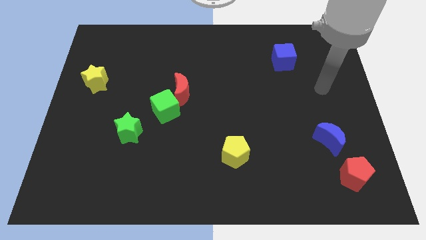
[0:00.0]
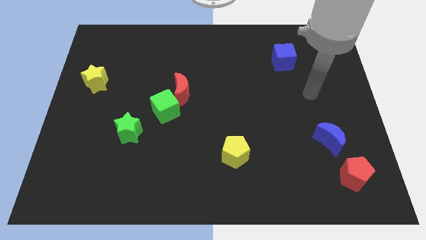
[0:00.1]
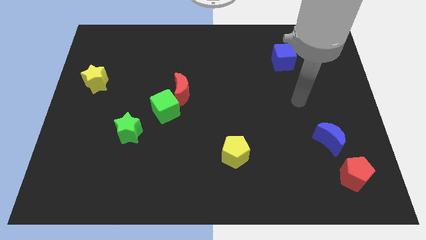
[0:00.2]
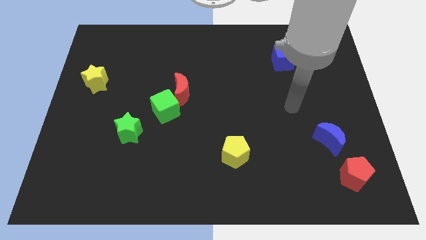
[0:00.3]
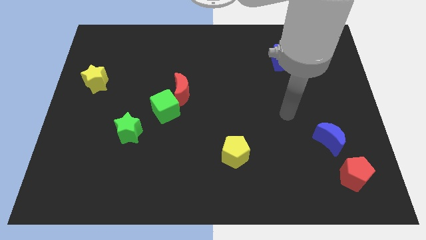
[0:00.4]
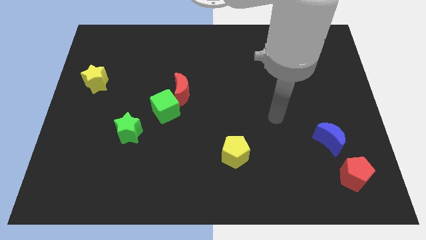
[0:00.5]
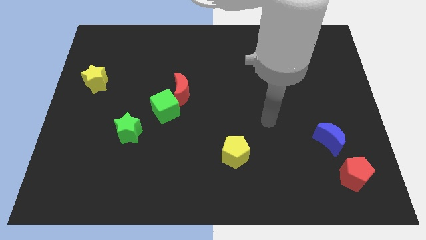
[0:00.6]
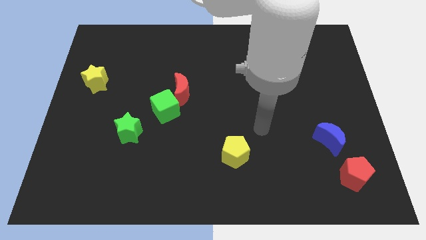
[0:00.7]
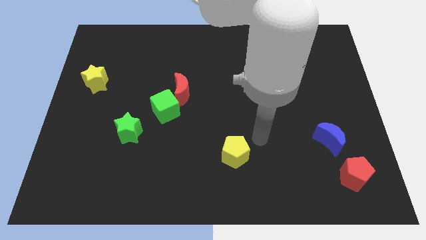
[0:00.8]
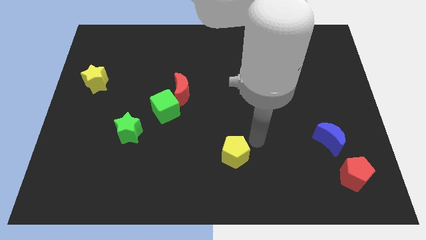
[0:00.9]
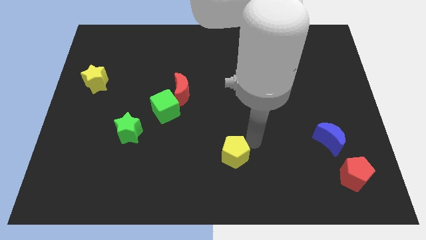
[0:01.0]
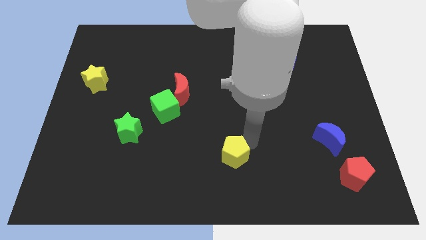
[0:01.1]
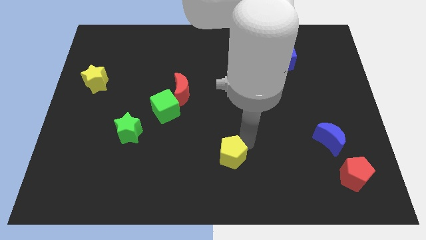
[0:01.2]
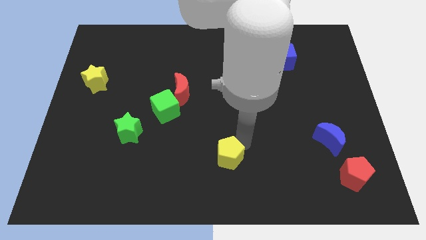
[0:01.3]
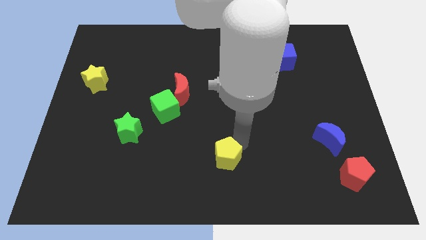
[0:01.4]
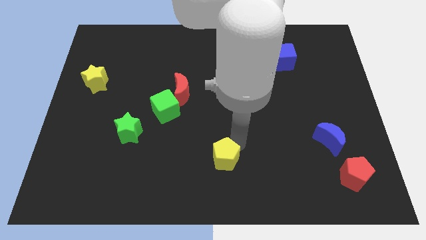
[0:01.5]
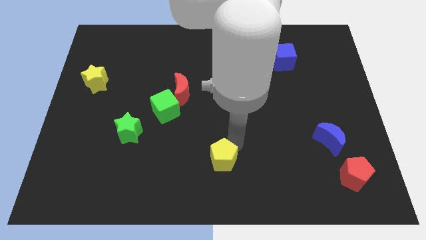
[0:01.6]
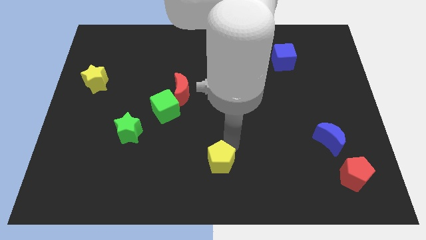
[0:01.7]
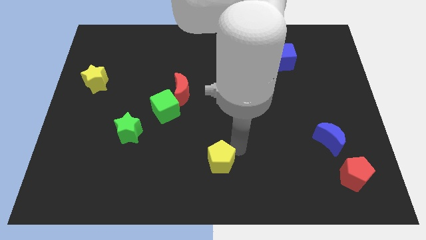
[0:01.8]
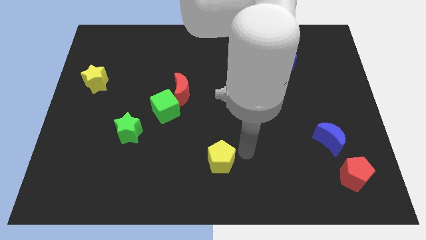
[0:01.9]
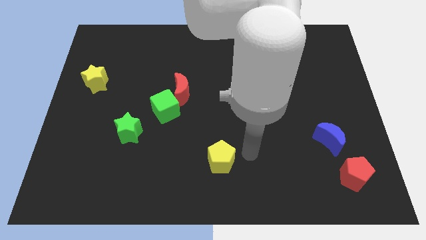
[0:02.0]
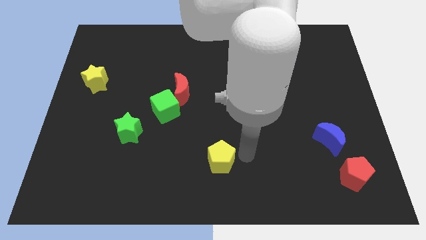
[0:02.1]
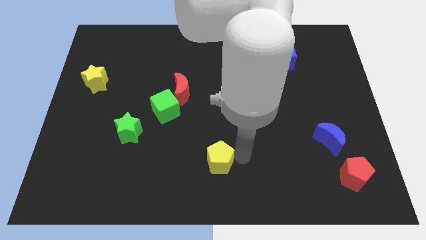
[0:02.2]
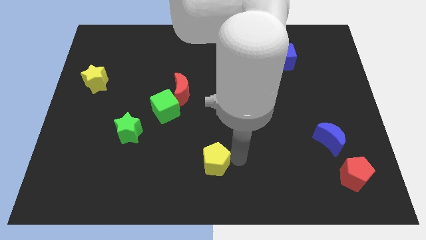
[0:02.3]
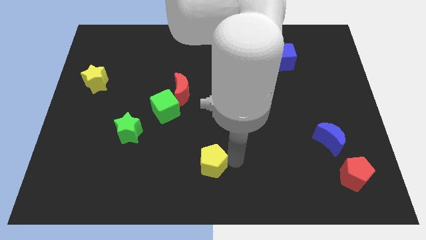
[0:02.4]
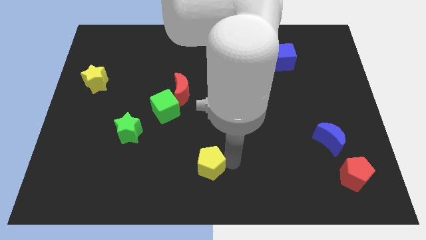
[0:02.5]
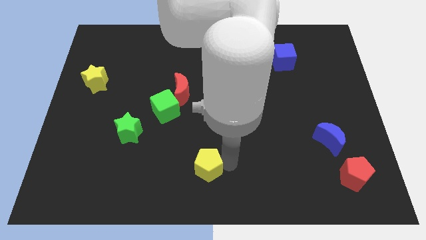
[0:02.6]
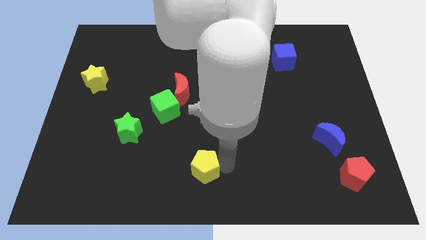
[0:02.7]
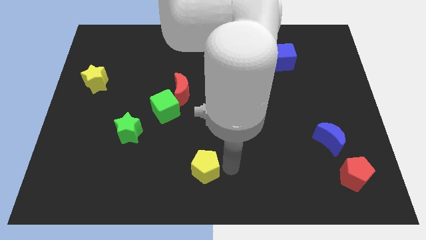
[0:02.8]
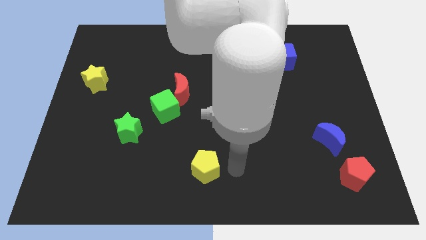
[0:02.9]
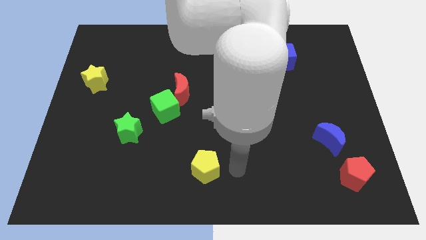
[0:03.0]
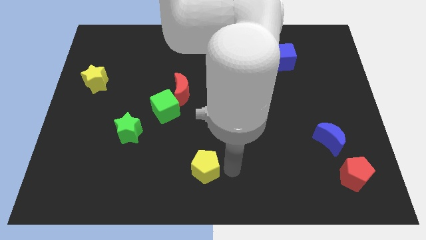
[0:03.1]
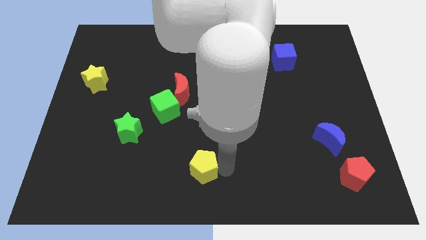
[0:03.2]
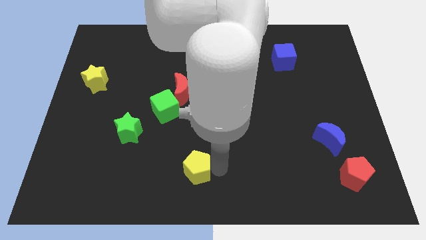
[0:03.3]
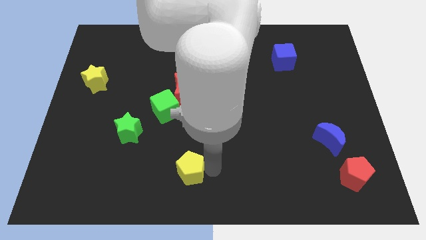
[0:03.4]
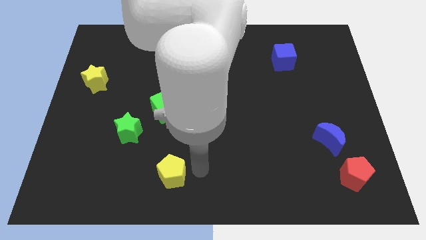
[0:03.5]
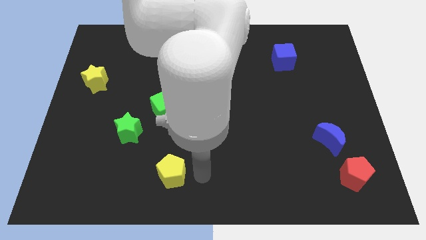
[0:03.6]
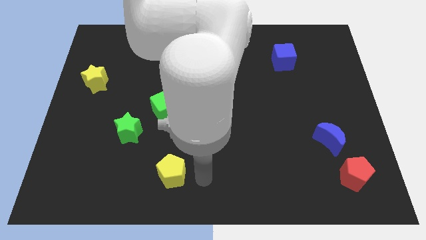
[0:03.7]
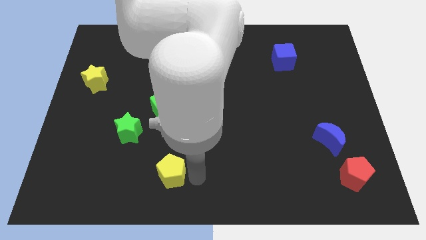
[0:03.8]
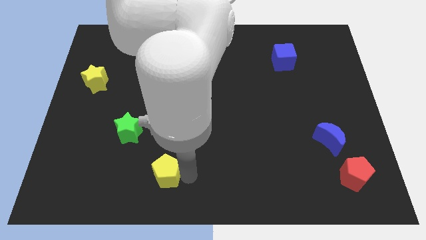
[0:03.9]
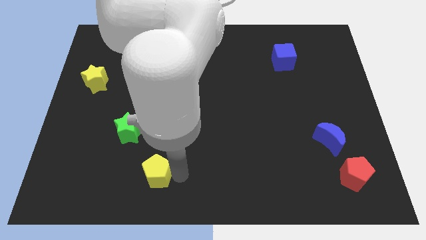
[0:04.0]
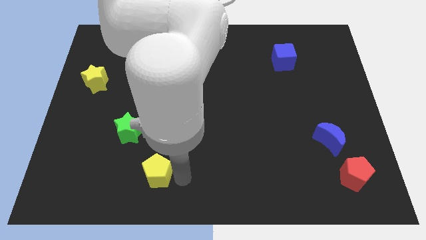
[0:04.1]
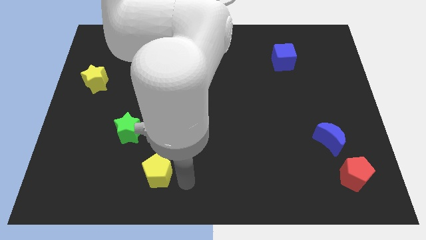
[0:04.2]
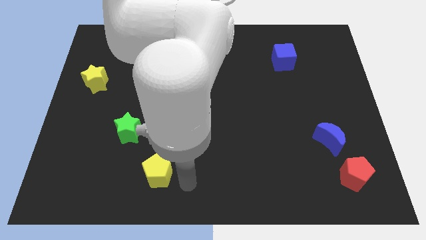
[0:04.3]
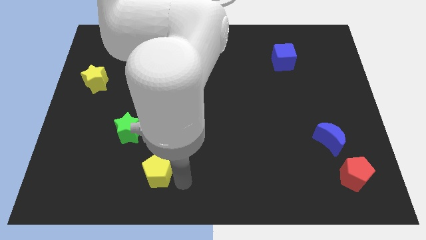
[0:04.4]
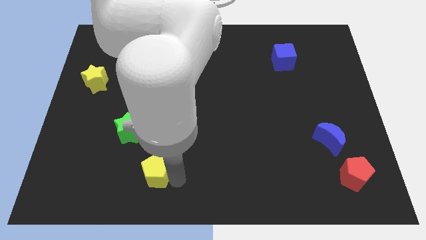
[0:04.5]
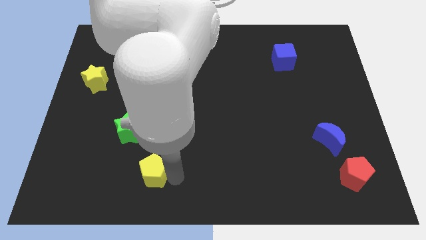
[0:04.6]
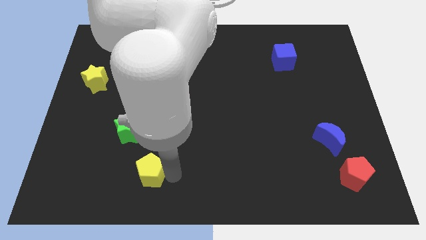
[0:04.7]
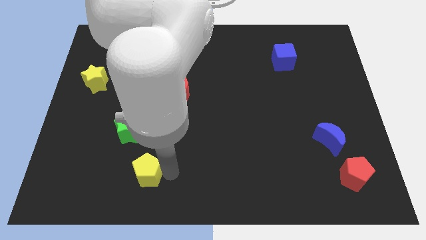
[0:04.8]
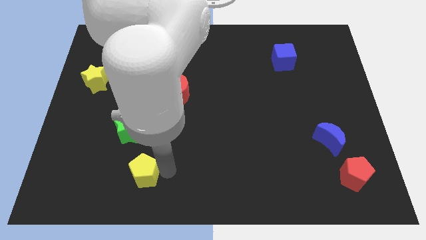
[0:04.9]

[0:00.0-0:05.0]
push the yellow pentagon below the green star

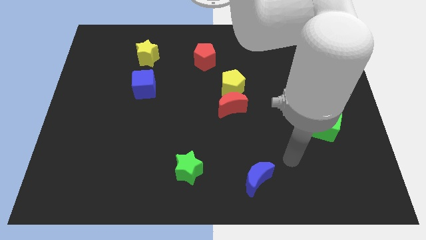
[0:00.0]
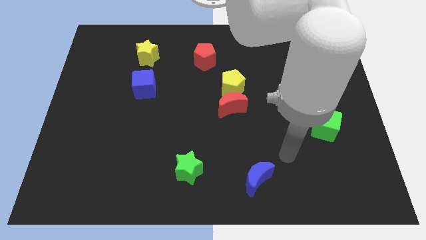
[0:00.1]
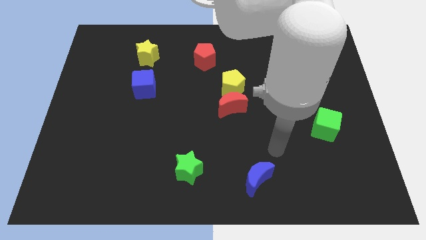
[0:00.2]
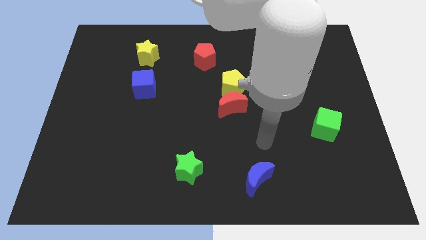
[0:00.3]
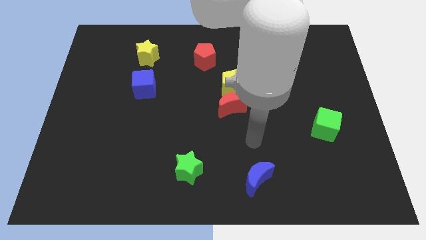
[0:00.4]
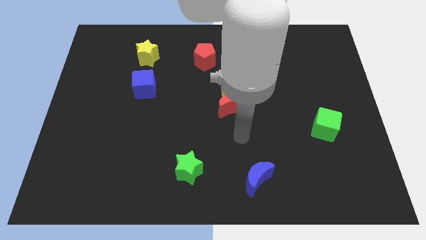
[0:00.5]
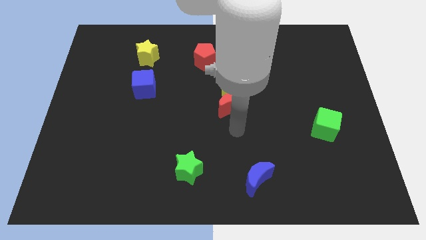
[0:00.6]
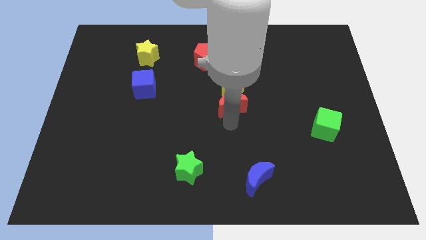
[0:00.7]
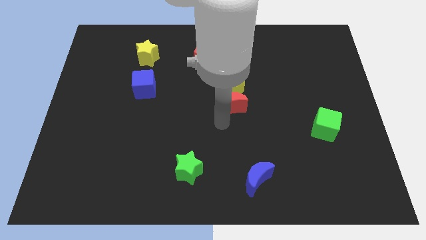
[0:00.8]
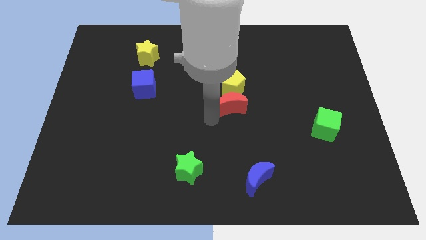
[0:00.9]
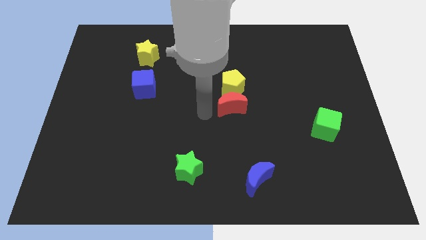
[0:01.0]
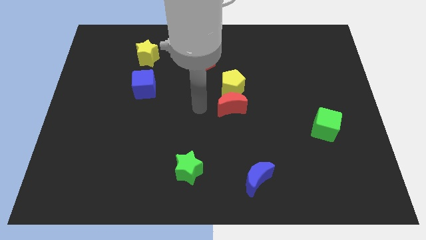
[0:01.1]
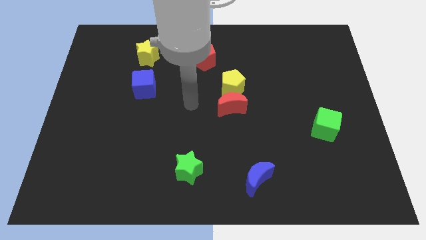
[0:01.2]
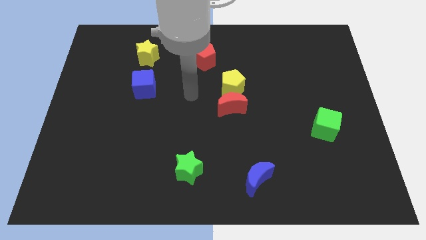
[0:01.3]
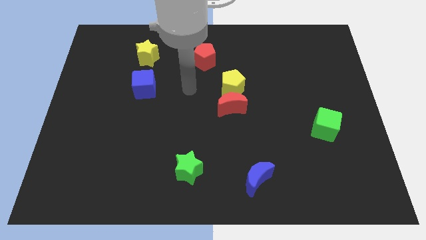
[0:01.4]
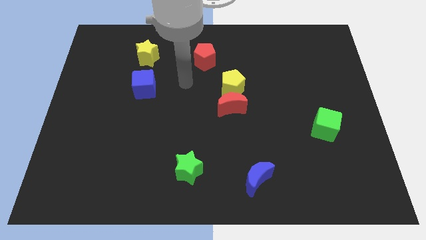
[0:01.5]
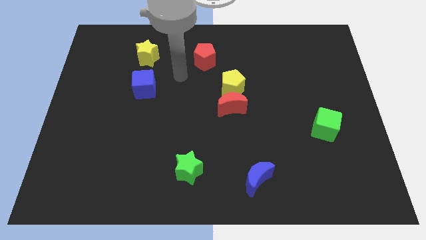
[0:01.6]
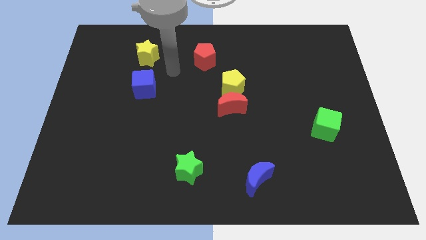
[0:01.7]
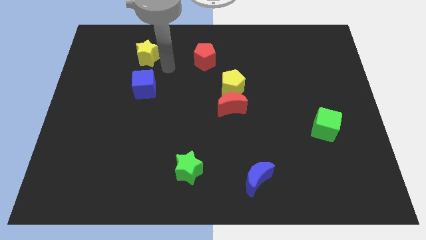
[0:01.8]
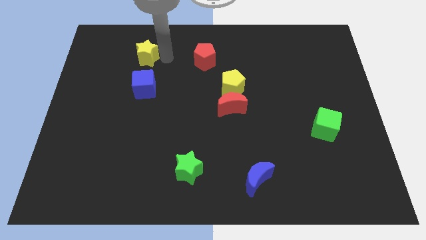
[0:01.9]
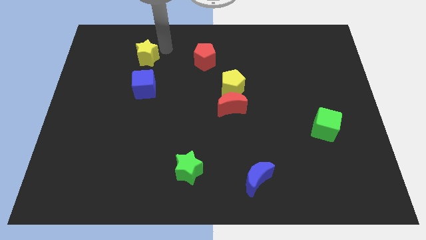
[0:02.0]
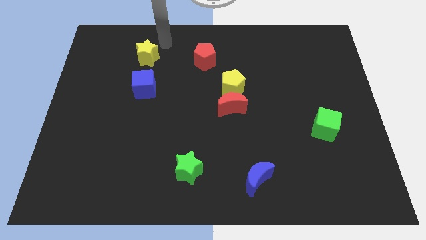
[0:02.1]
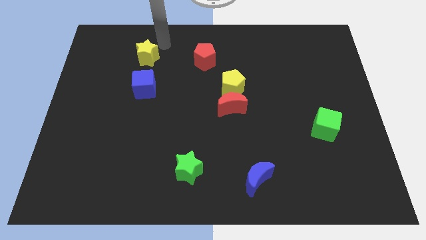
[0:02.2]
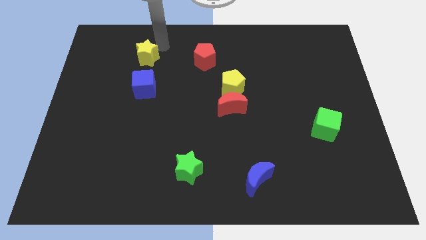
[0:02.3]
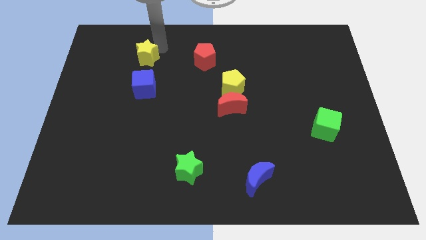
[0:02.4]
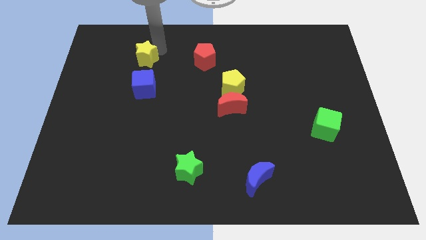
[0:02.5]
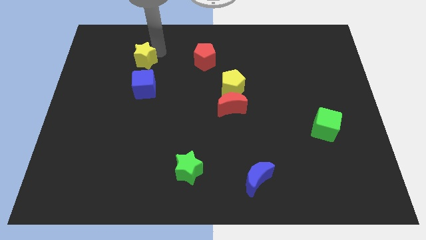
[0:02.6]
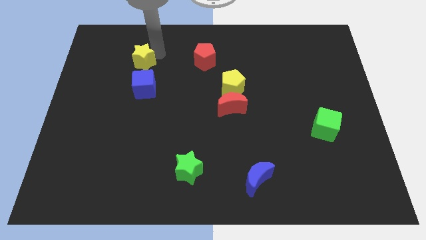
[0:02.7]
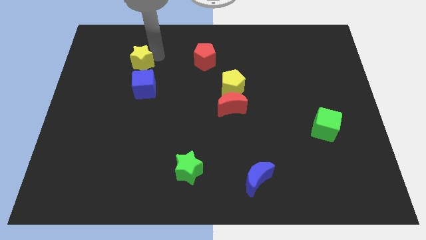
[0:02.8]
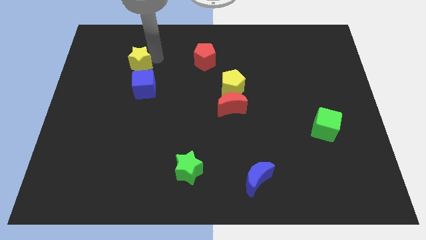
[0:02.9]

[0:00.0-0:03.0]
put the yellow star diagonally up and to the left of the blue cube
